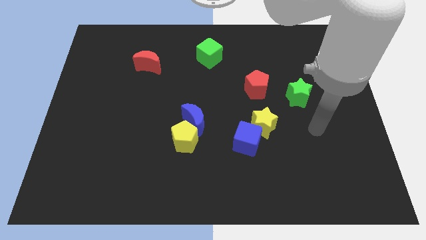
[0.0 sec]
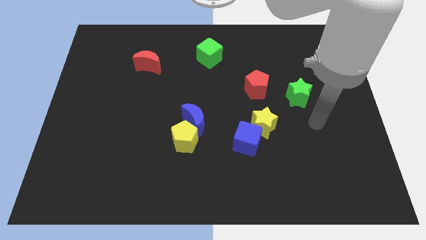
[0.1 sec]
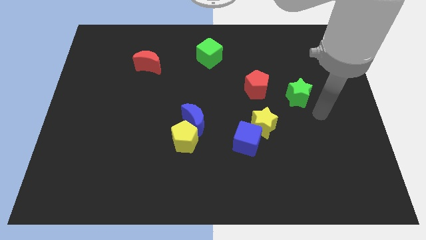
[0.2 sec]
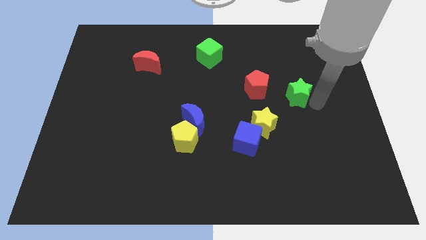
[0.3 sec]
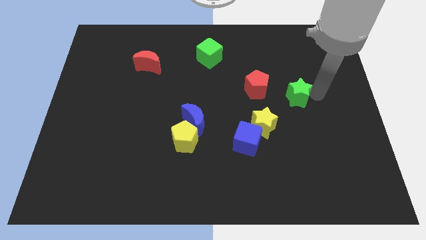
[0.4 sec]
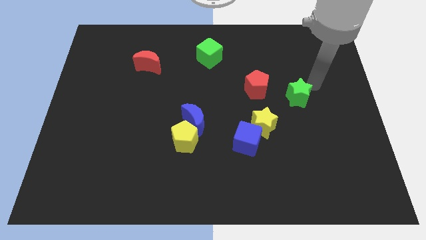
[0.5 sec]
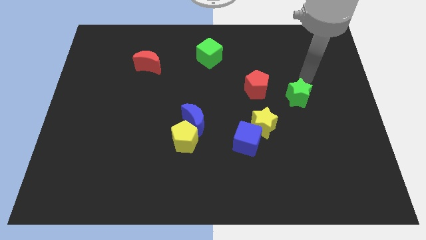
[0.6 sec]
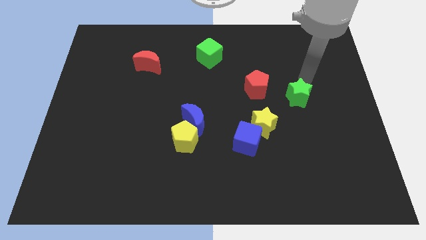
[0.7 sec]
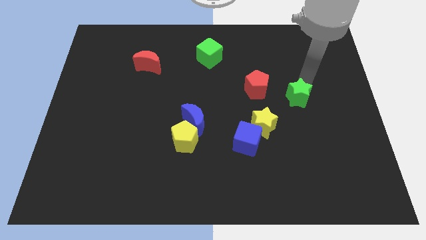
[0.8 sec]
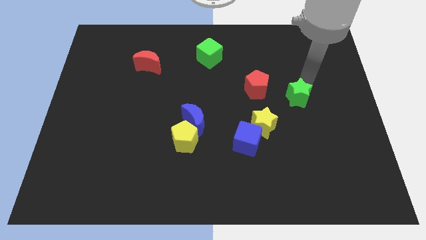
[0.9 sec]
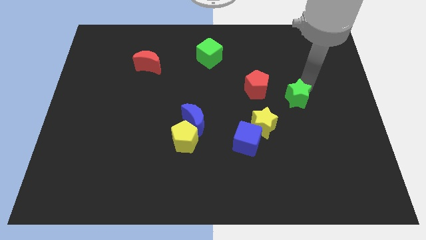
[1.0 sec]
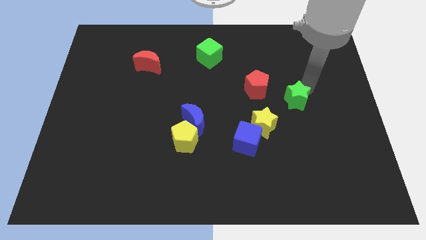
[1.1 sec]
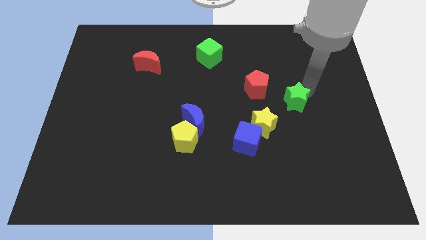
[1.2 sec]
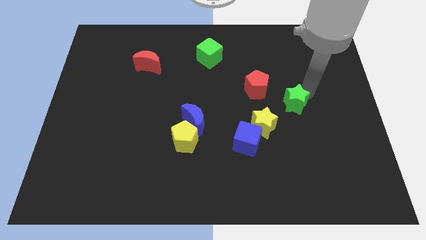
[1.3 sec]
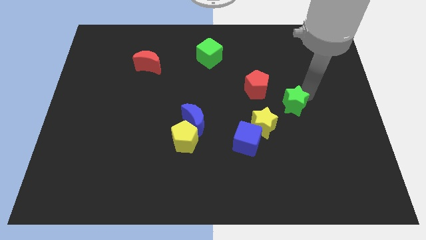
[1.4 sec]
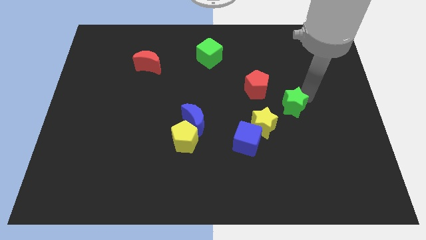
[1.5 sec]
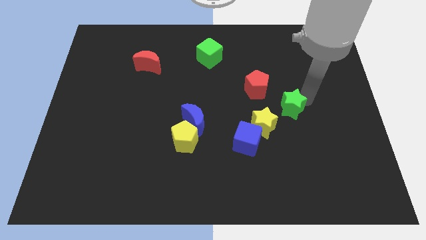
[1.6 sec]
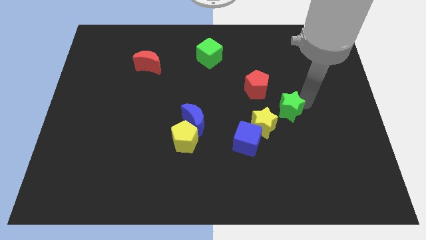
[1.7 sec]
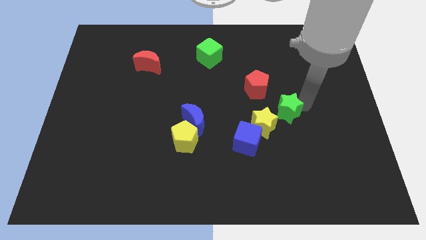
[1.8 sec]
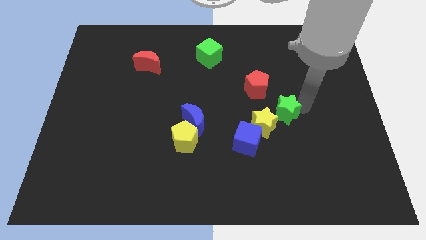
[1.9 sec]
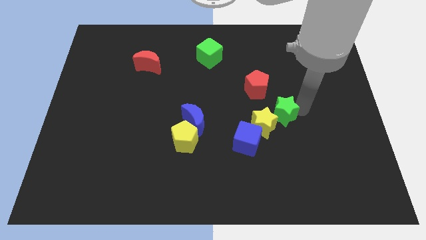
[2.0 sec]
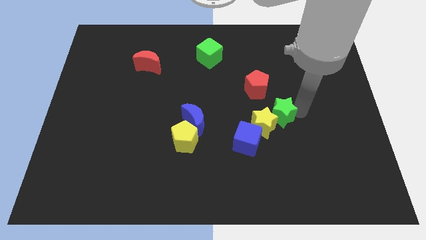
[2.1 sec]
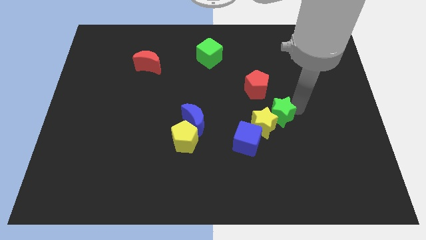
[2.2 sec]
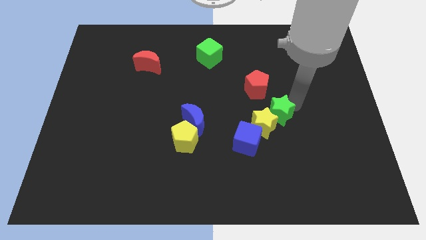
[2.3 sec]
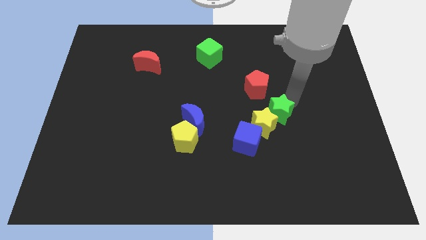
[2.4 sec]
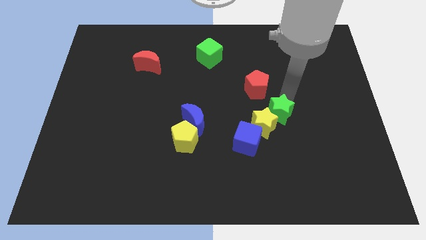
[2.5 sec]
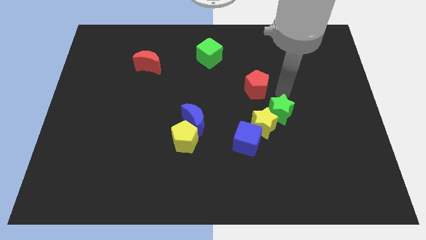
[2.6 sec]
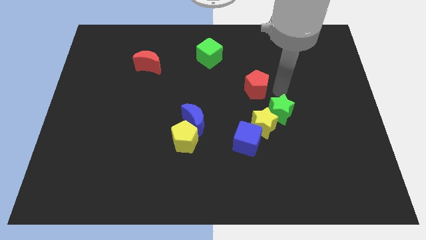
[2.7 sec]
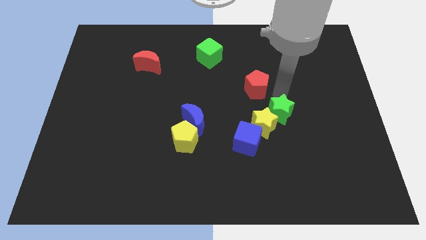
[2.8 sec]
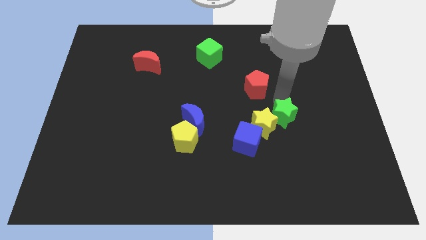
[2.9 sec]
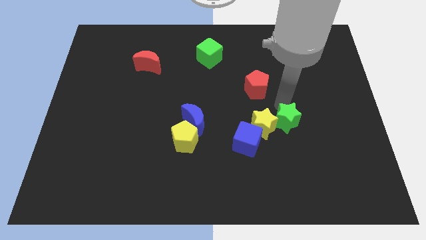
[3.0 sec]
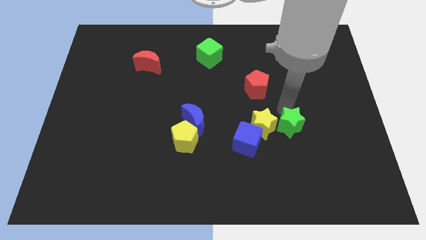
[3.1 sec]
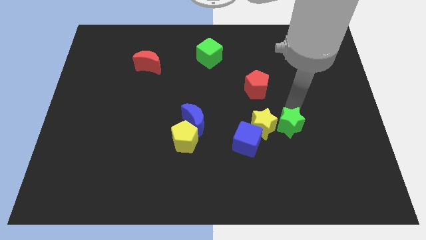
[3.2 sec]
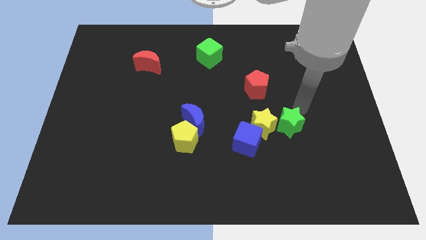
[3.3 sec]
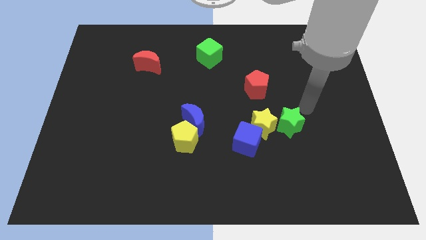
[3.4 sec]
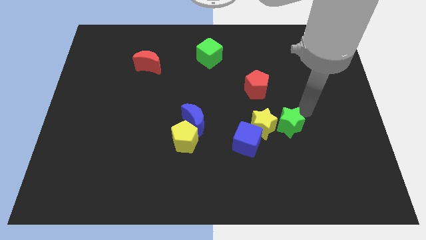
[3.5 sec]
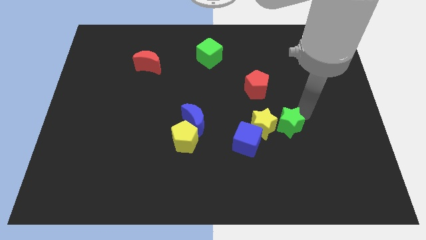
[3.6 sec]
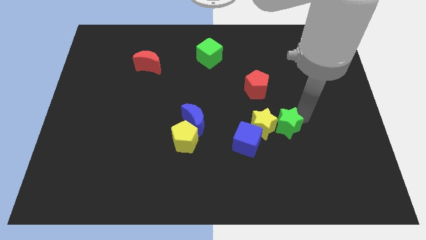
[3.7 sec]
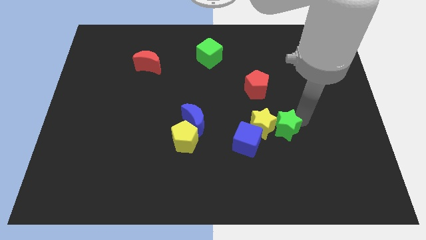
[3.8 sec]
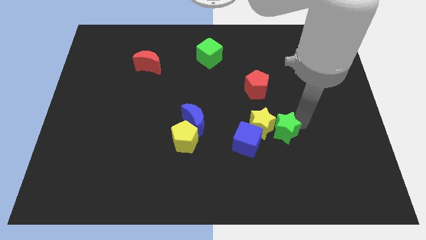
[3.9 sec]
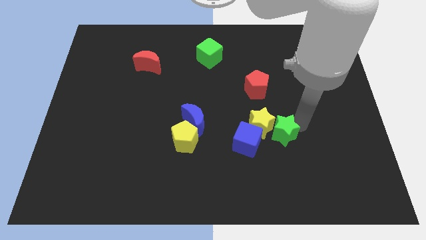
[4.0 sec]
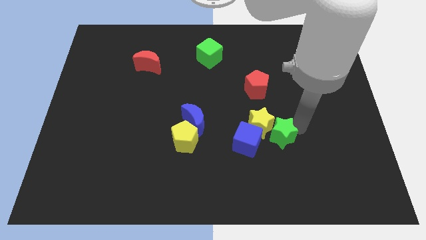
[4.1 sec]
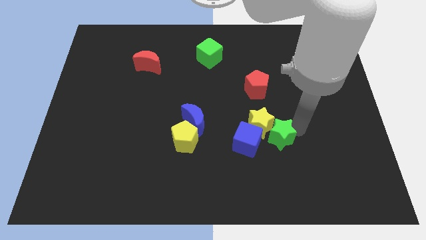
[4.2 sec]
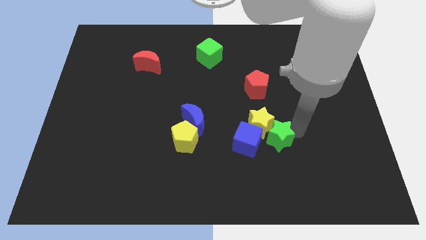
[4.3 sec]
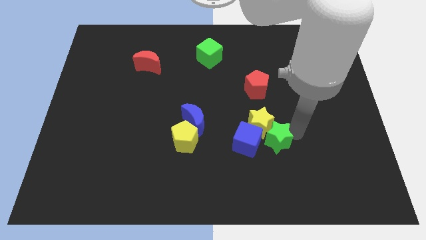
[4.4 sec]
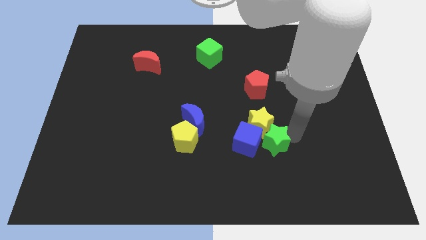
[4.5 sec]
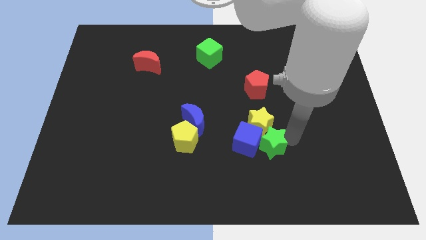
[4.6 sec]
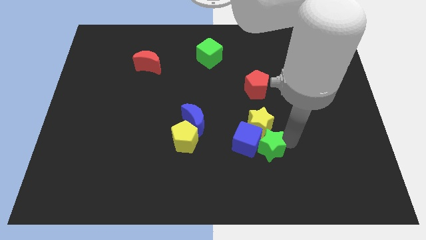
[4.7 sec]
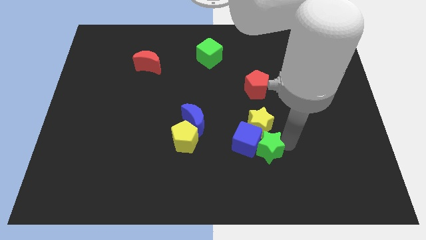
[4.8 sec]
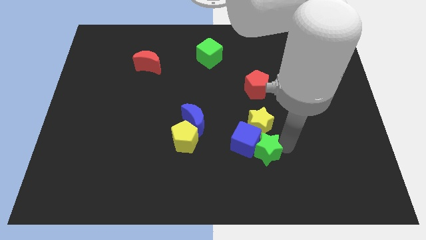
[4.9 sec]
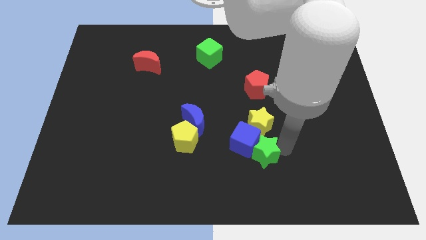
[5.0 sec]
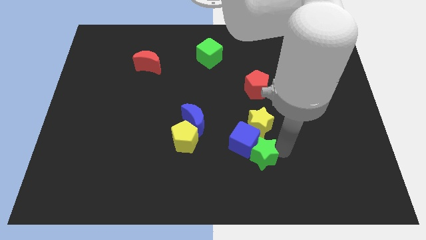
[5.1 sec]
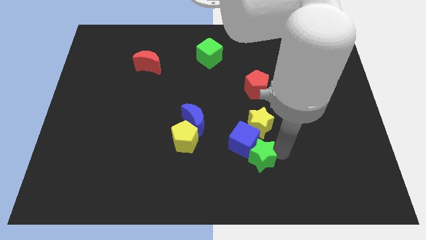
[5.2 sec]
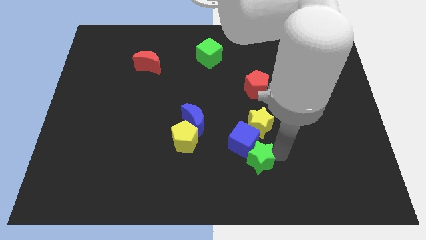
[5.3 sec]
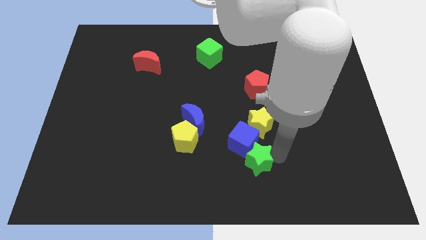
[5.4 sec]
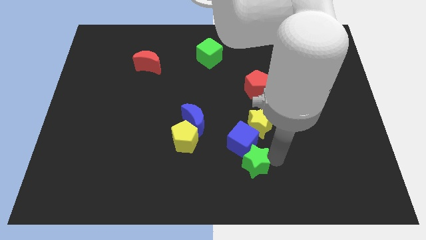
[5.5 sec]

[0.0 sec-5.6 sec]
move the green star diagonally downwards and to the left

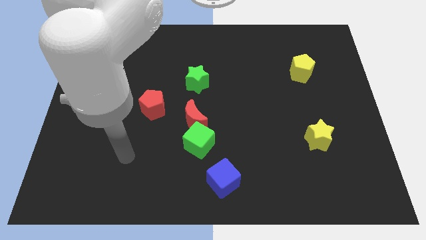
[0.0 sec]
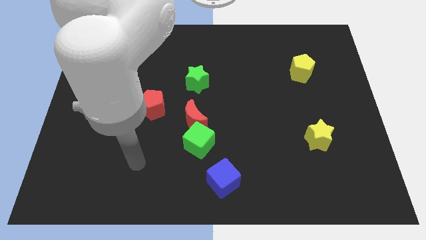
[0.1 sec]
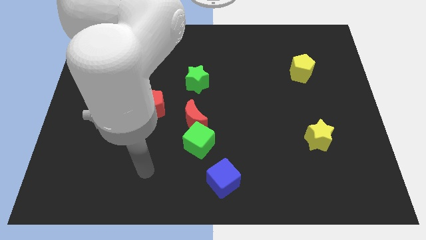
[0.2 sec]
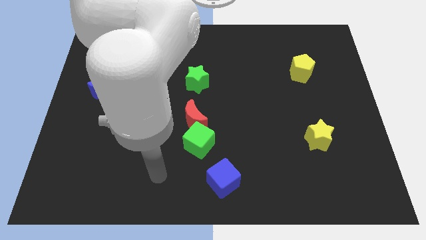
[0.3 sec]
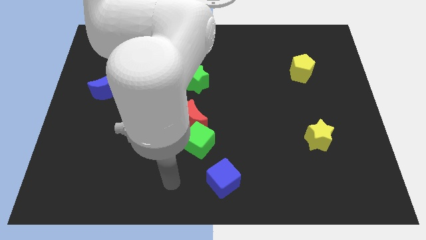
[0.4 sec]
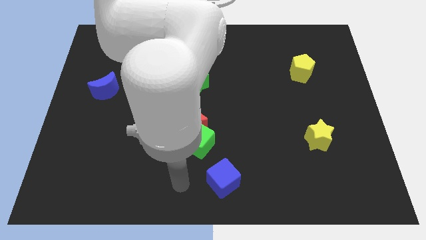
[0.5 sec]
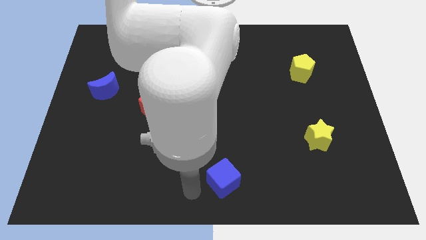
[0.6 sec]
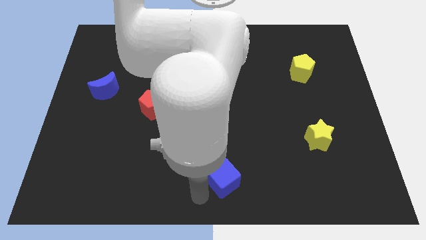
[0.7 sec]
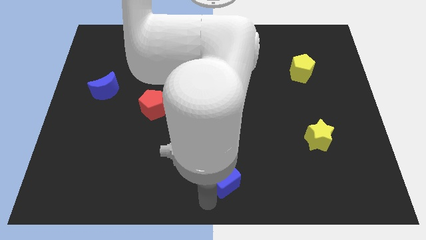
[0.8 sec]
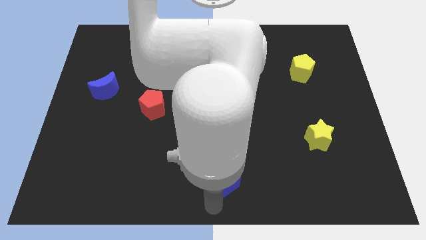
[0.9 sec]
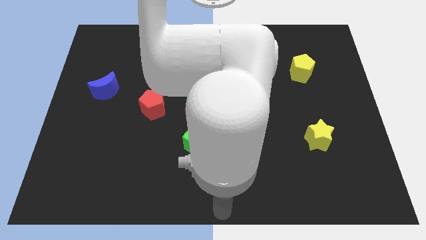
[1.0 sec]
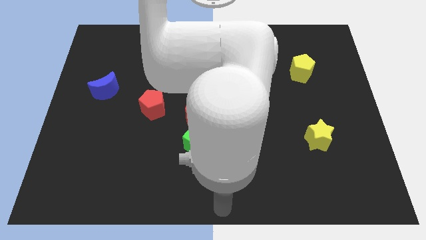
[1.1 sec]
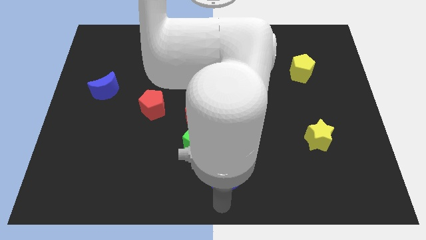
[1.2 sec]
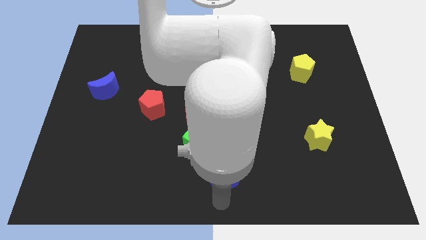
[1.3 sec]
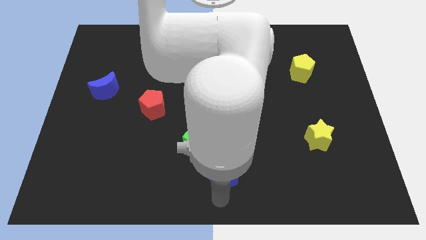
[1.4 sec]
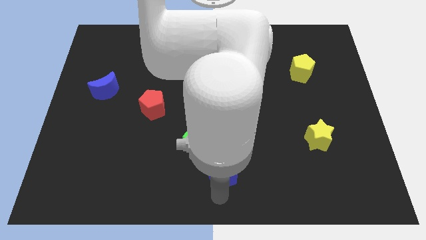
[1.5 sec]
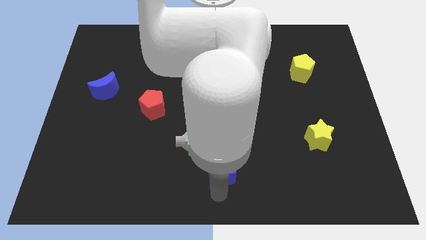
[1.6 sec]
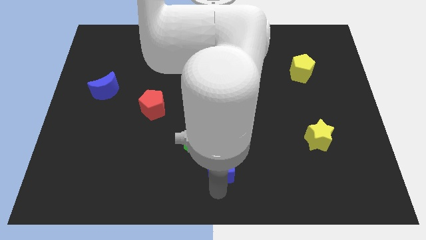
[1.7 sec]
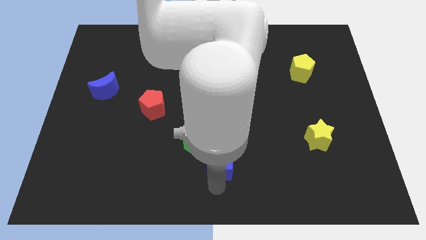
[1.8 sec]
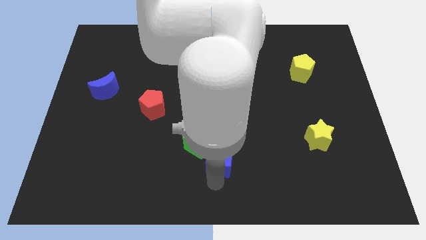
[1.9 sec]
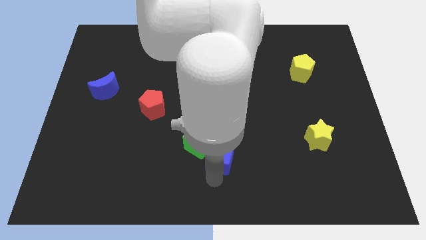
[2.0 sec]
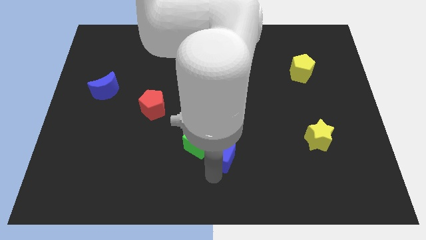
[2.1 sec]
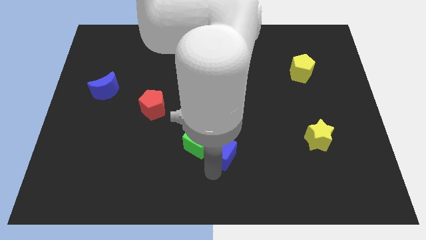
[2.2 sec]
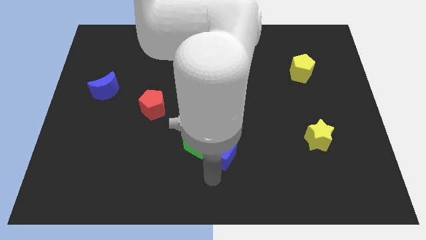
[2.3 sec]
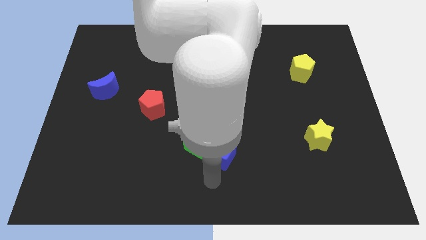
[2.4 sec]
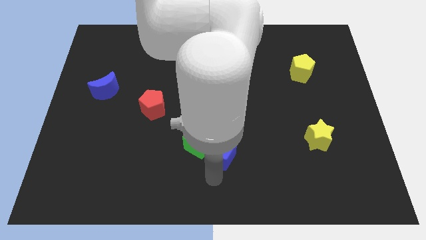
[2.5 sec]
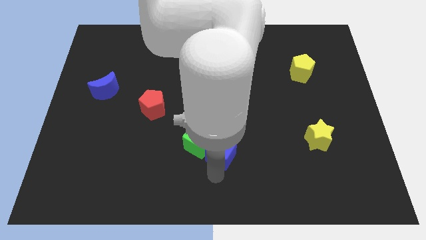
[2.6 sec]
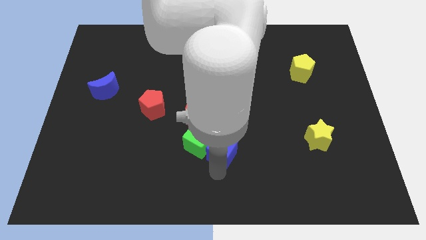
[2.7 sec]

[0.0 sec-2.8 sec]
push the blue cube upwards a little
